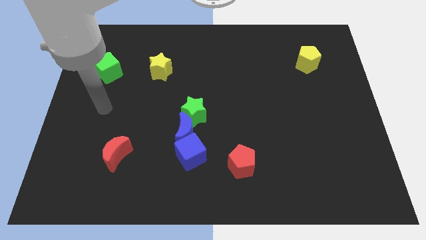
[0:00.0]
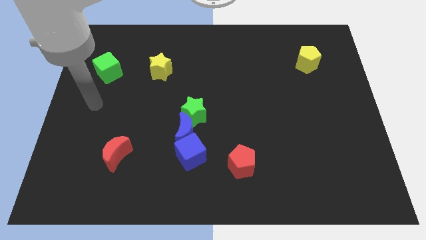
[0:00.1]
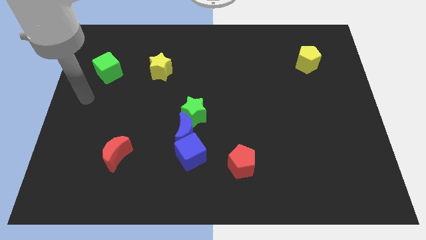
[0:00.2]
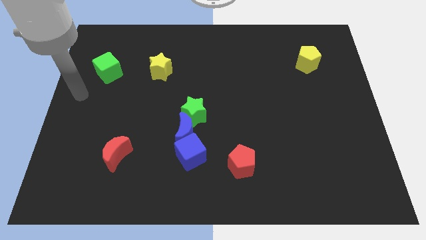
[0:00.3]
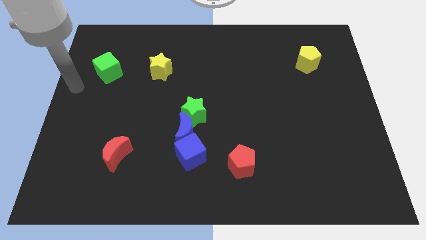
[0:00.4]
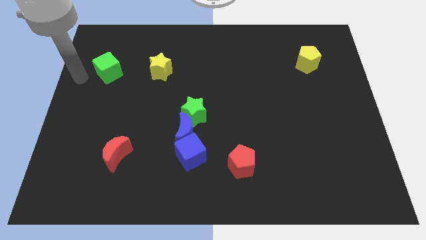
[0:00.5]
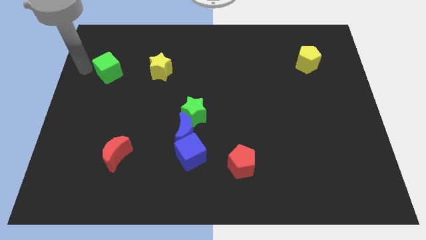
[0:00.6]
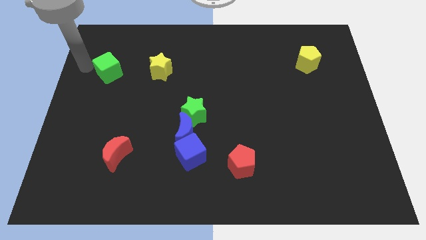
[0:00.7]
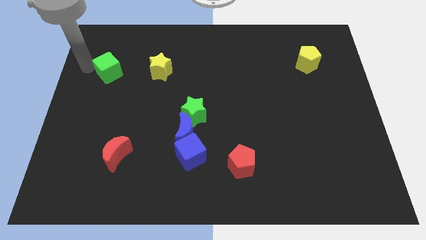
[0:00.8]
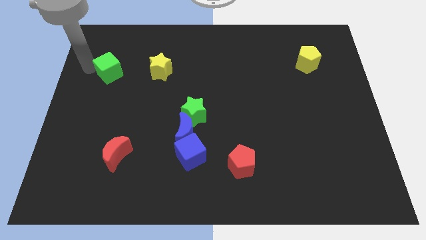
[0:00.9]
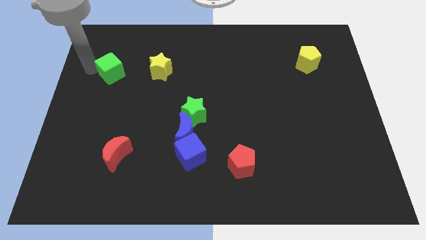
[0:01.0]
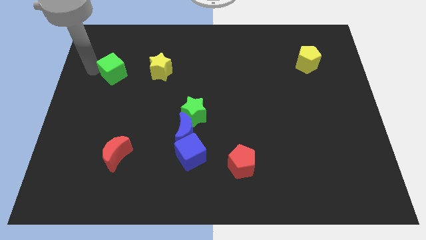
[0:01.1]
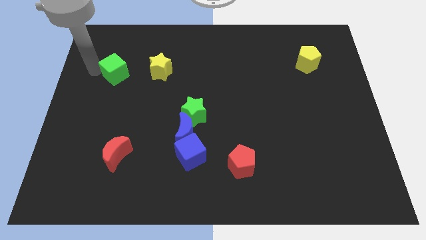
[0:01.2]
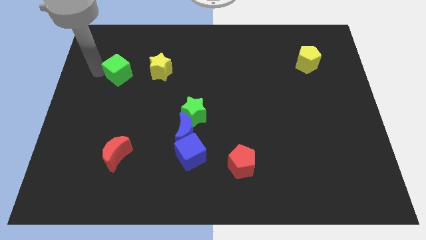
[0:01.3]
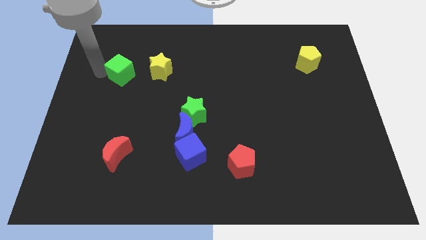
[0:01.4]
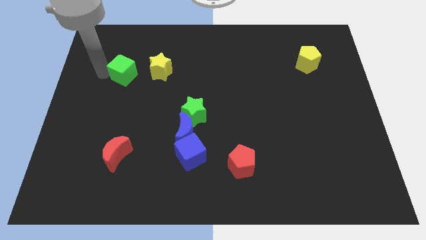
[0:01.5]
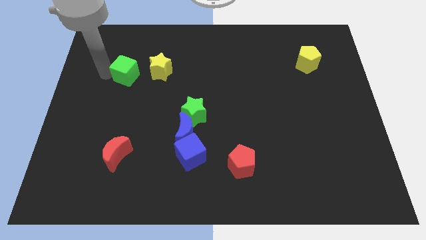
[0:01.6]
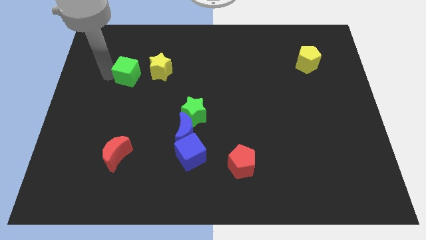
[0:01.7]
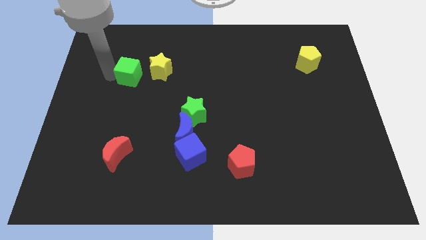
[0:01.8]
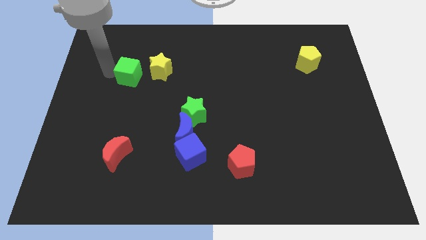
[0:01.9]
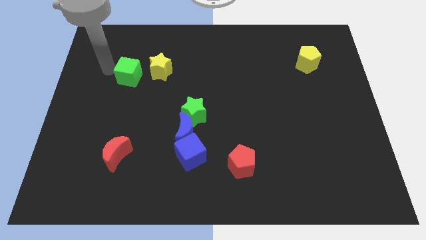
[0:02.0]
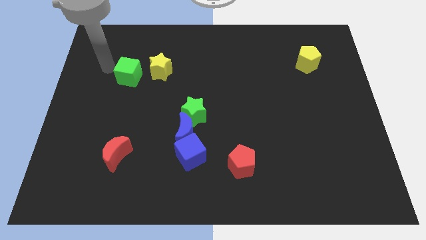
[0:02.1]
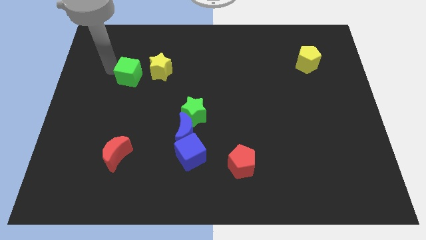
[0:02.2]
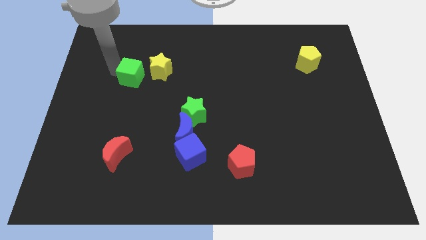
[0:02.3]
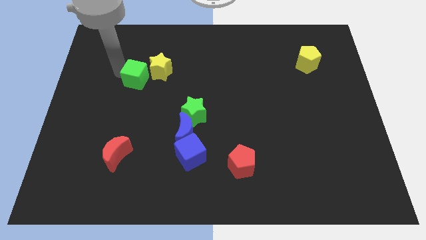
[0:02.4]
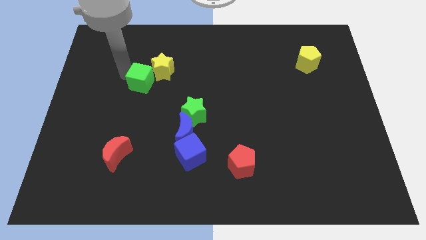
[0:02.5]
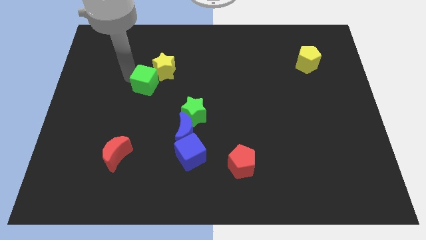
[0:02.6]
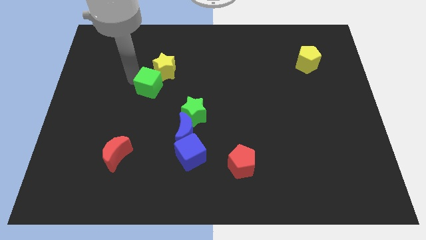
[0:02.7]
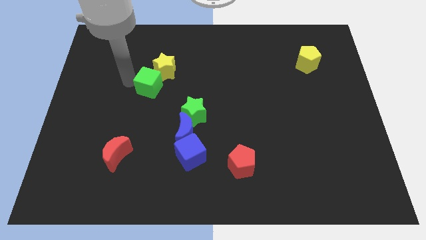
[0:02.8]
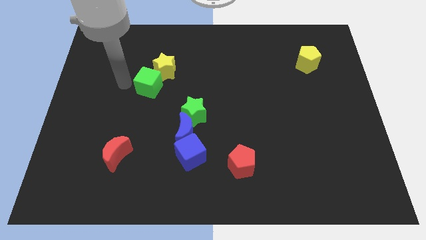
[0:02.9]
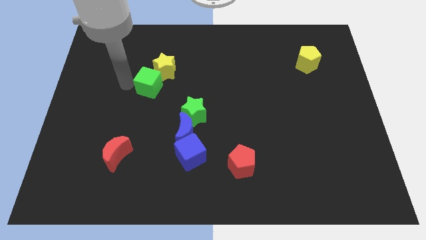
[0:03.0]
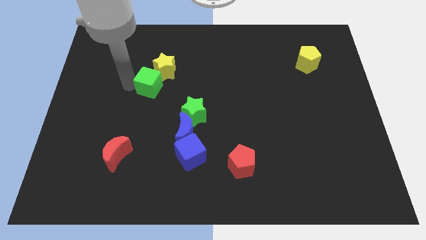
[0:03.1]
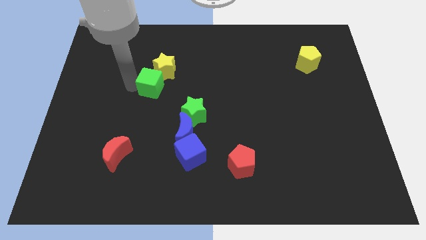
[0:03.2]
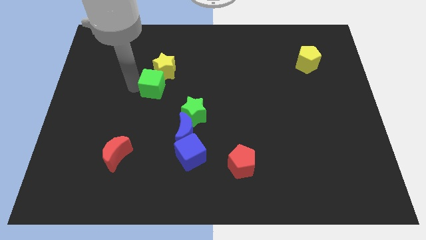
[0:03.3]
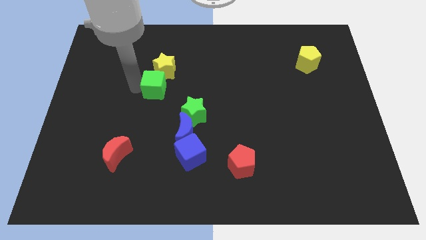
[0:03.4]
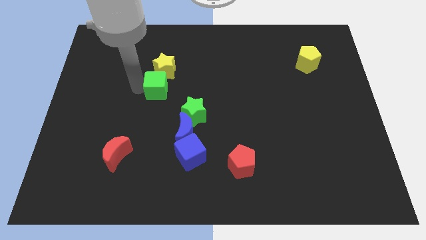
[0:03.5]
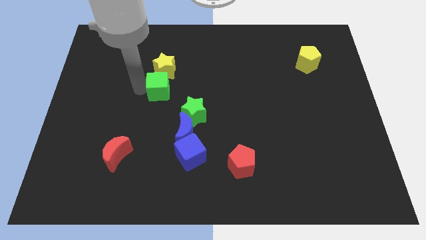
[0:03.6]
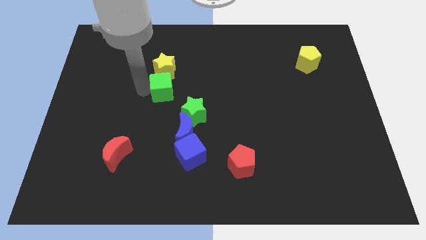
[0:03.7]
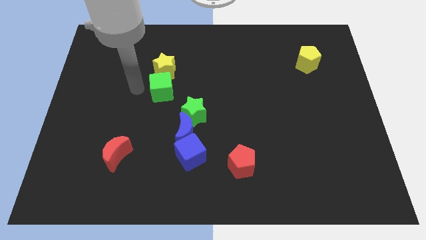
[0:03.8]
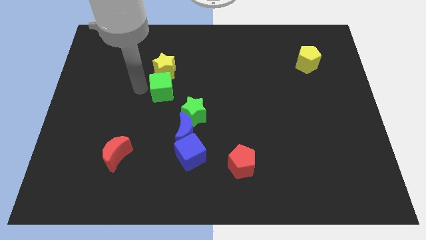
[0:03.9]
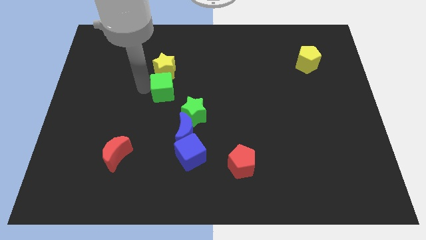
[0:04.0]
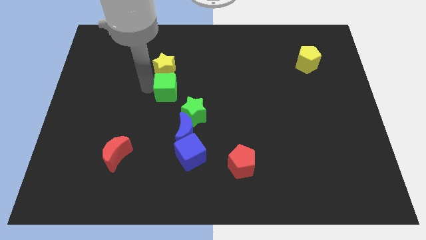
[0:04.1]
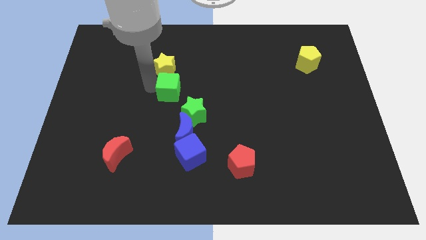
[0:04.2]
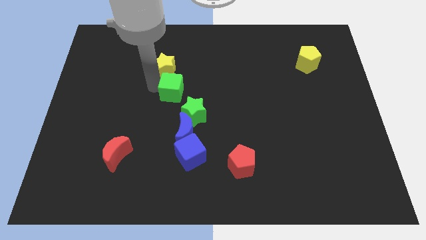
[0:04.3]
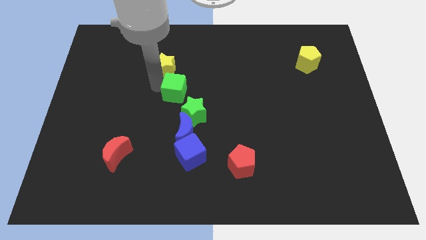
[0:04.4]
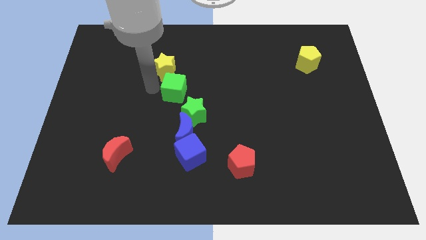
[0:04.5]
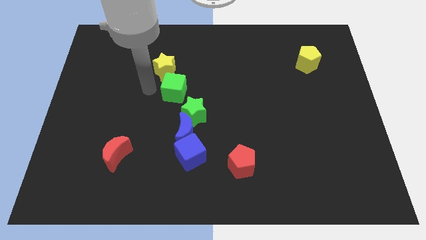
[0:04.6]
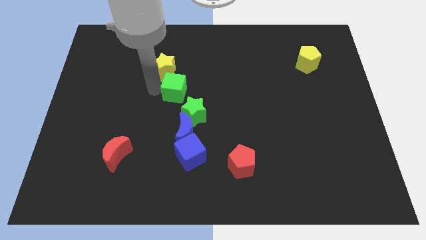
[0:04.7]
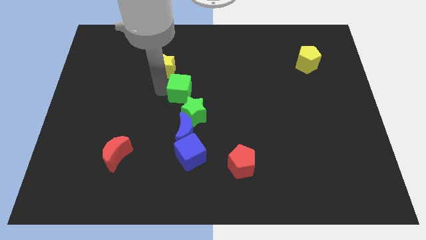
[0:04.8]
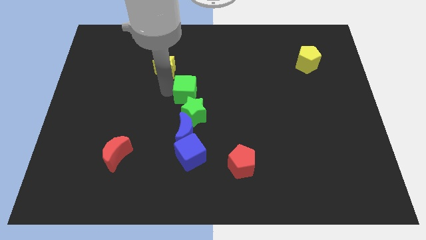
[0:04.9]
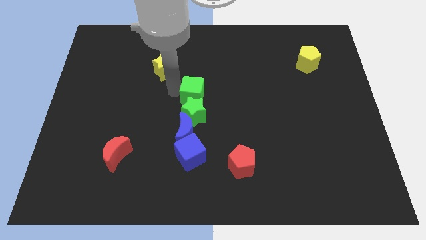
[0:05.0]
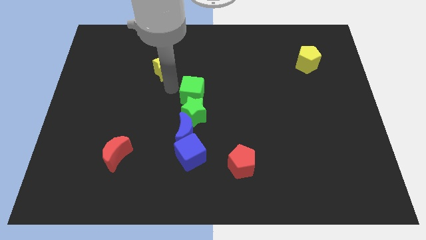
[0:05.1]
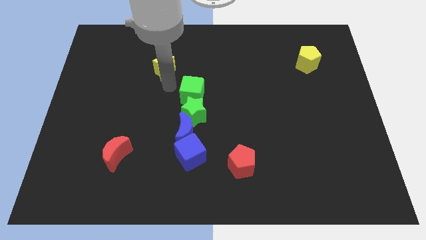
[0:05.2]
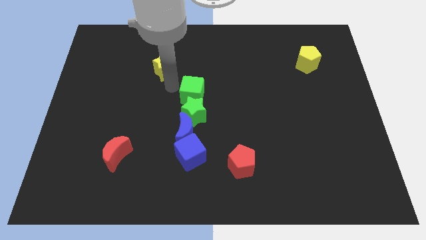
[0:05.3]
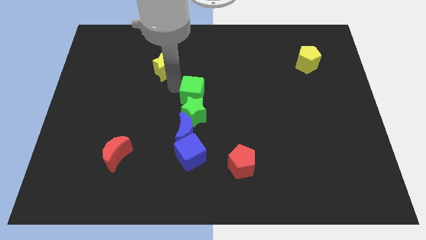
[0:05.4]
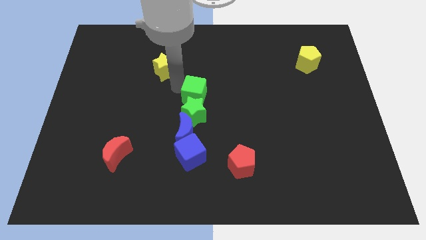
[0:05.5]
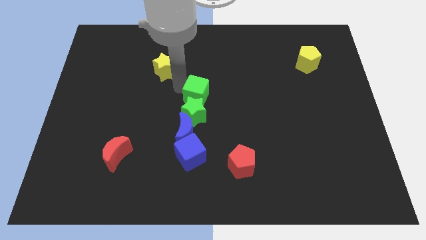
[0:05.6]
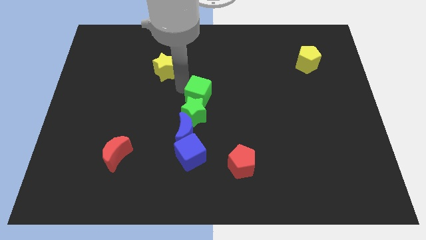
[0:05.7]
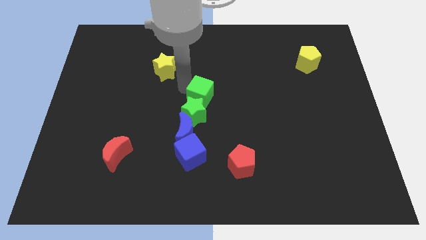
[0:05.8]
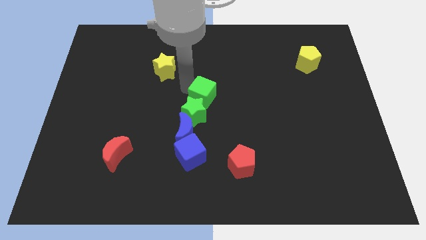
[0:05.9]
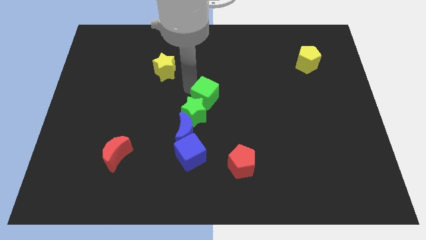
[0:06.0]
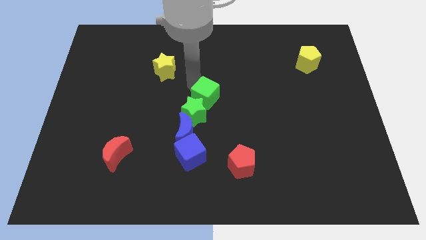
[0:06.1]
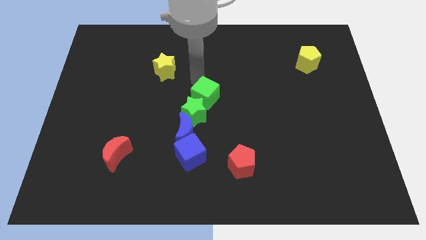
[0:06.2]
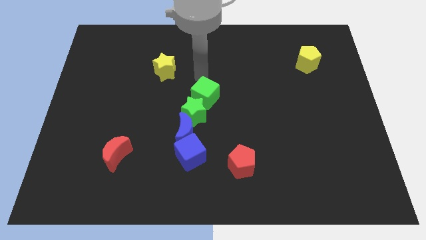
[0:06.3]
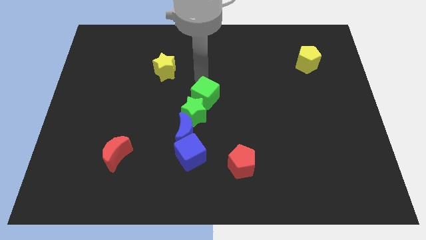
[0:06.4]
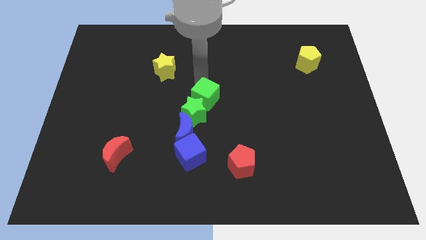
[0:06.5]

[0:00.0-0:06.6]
put the green cube diagonally up and to the right of the blue moon

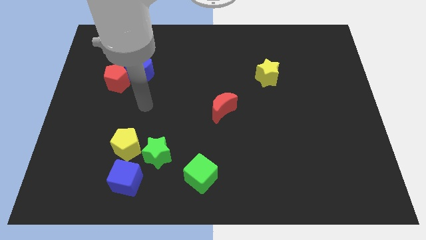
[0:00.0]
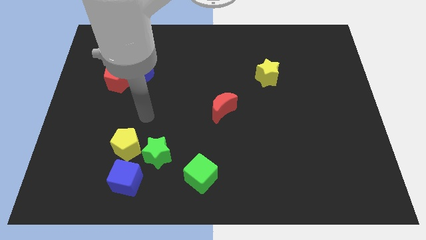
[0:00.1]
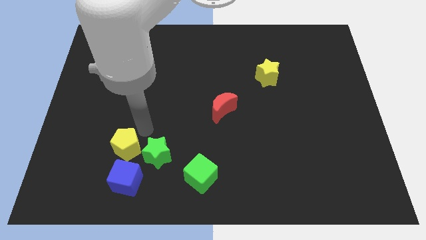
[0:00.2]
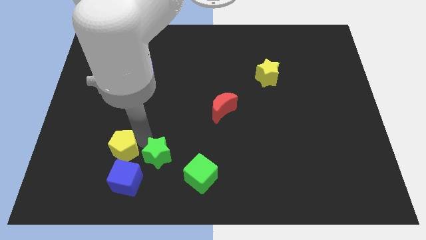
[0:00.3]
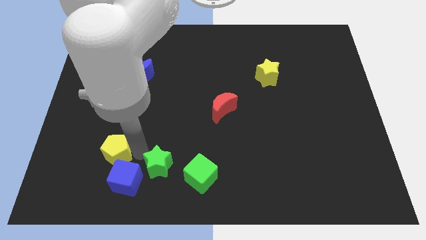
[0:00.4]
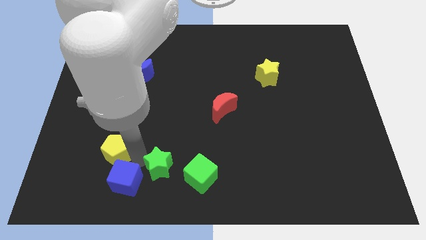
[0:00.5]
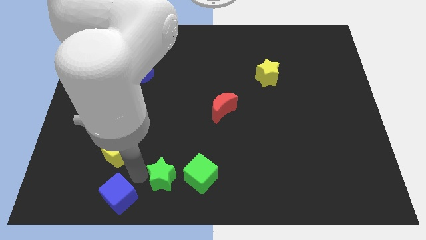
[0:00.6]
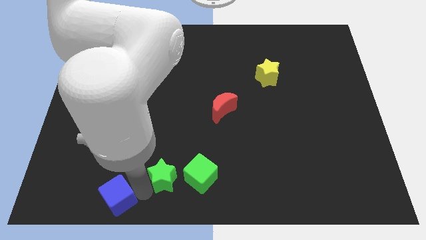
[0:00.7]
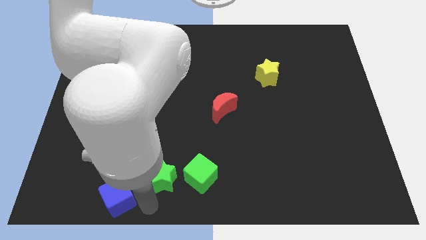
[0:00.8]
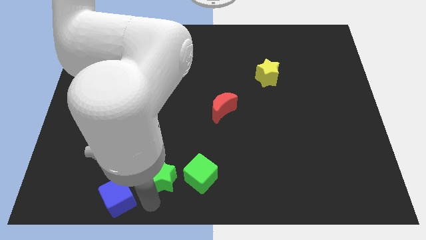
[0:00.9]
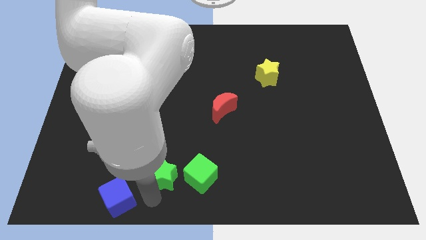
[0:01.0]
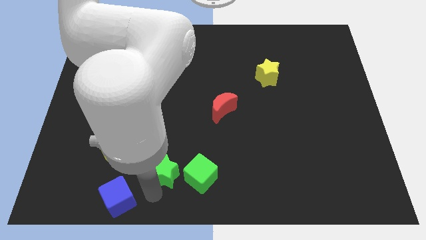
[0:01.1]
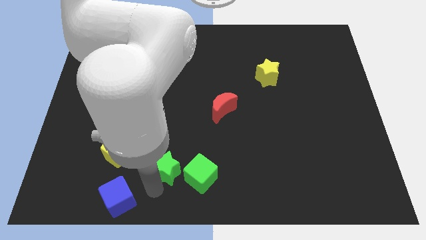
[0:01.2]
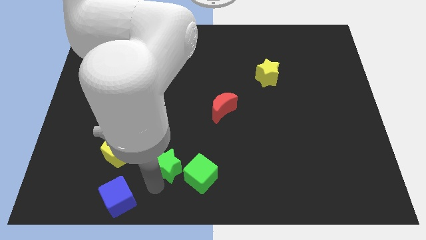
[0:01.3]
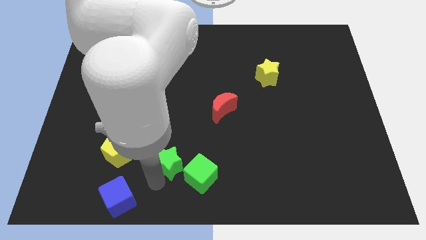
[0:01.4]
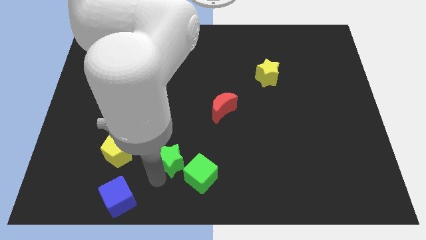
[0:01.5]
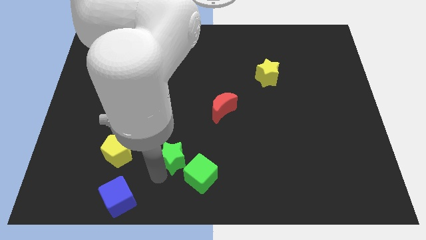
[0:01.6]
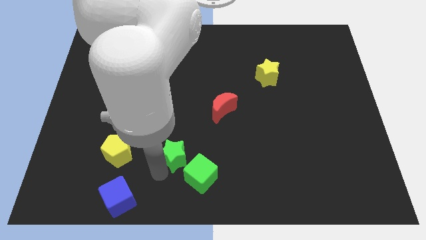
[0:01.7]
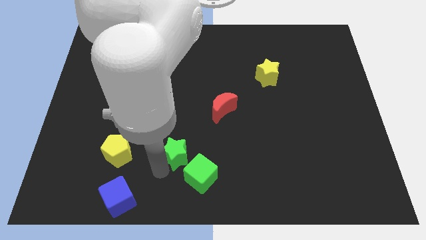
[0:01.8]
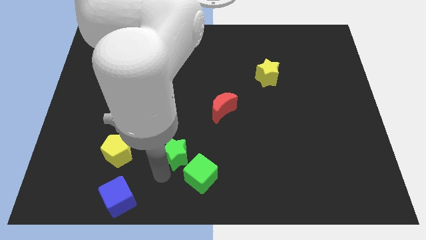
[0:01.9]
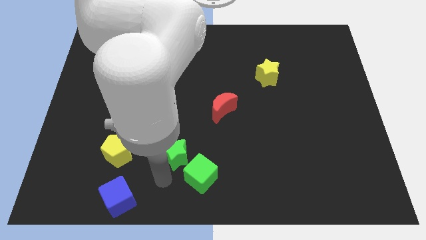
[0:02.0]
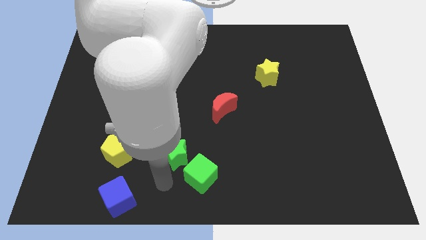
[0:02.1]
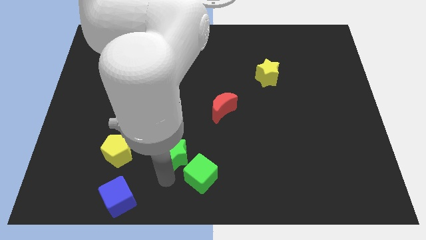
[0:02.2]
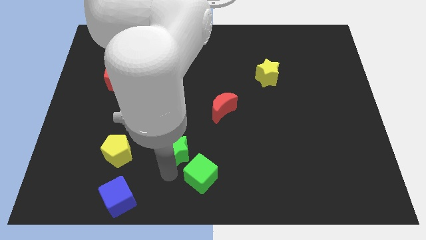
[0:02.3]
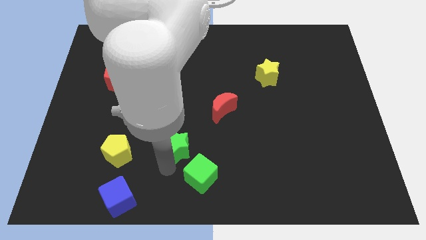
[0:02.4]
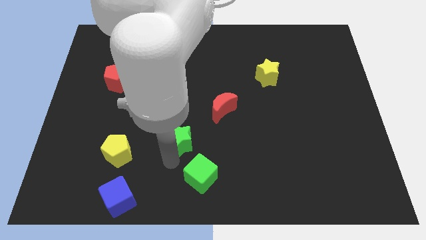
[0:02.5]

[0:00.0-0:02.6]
move the green star to the bottom left of the red moon
